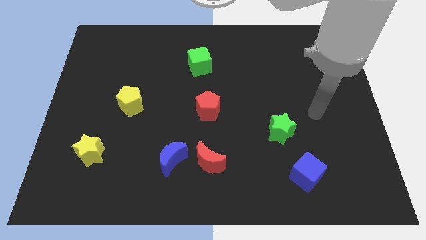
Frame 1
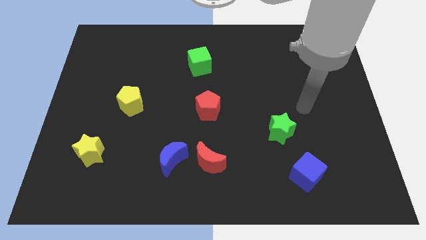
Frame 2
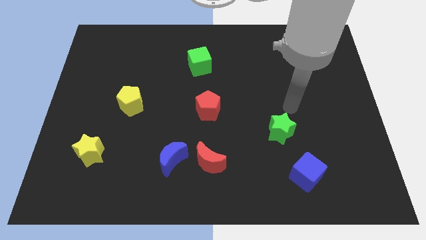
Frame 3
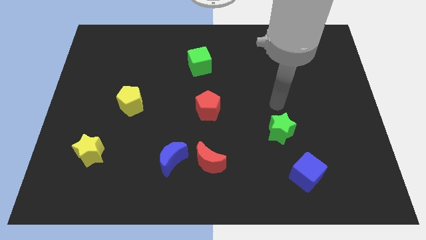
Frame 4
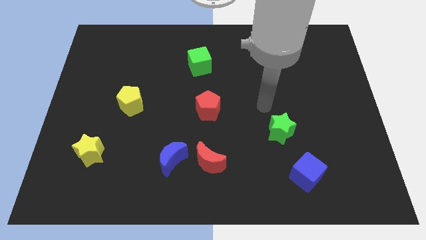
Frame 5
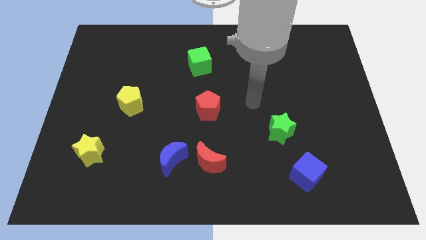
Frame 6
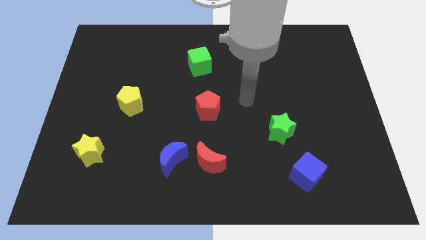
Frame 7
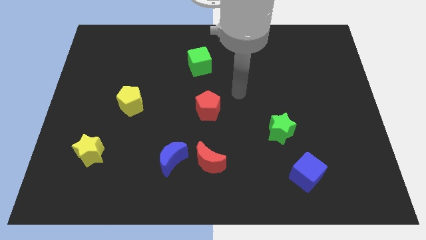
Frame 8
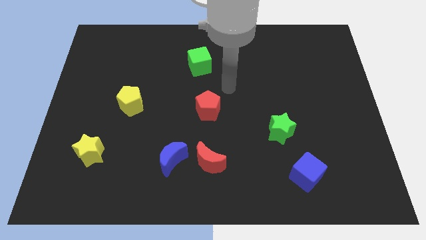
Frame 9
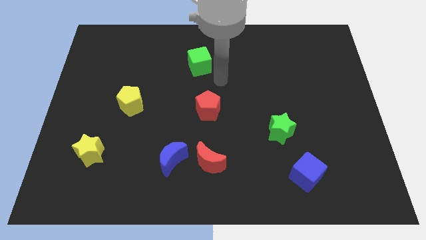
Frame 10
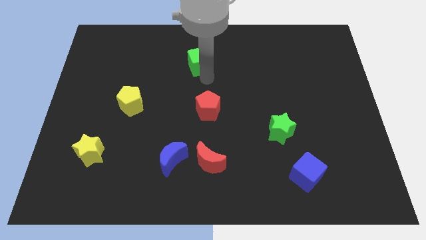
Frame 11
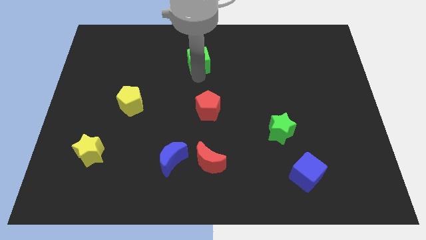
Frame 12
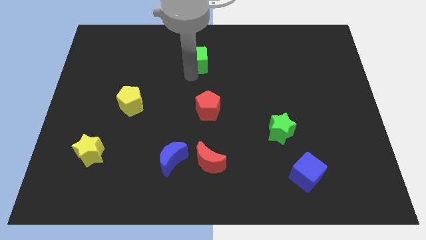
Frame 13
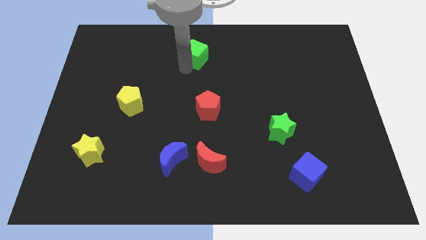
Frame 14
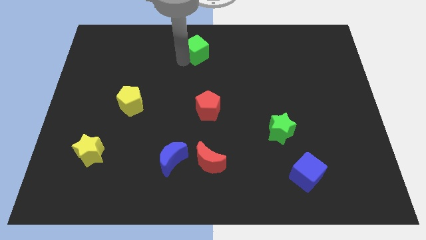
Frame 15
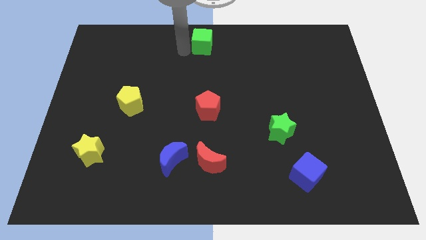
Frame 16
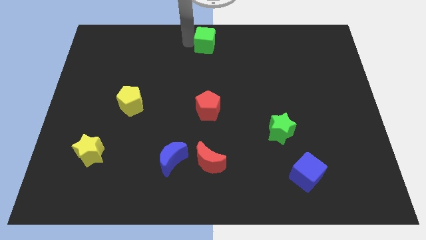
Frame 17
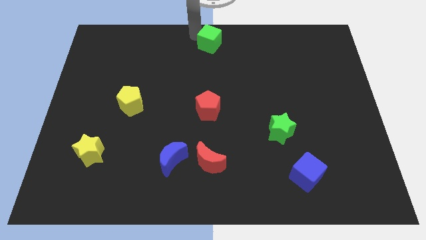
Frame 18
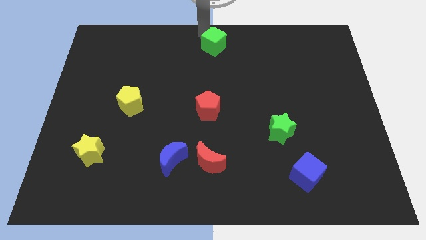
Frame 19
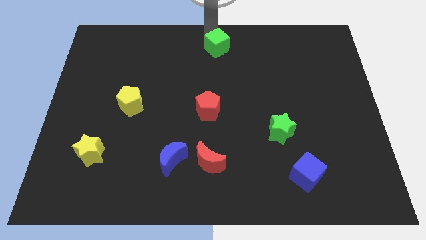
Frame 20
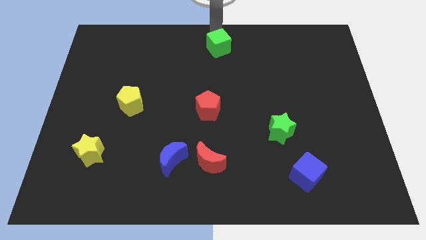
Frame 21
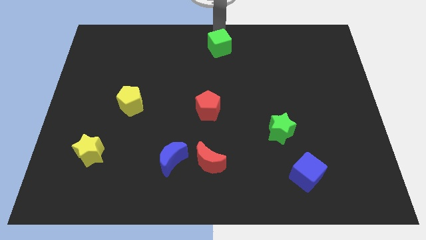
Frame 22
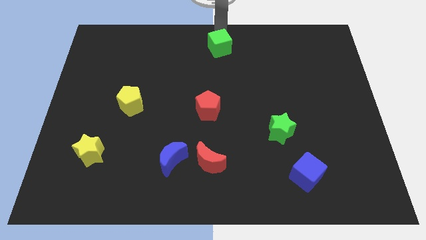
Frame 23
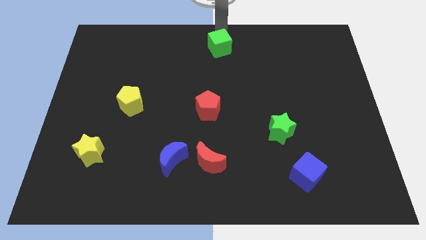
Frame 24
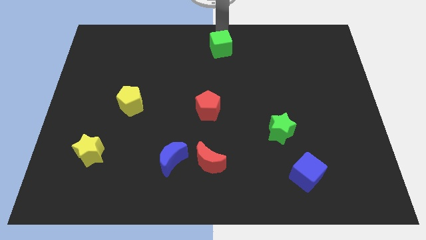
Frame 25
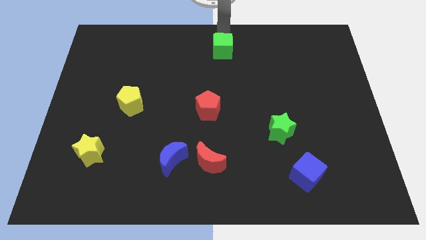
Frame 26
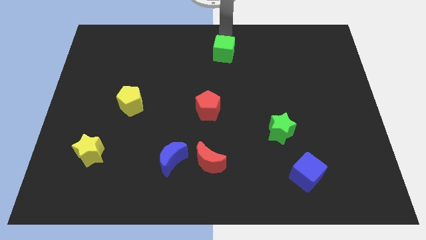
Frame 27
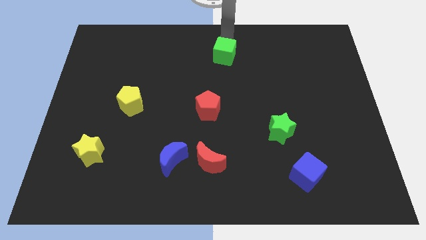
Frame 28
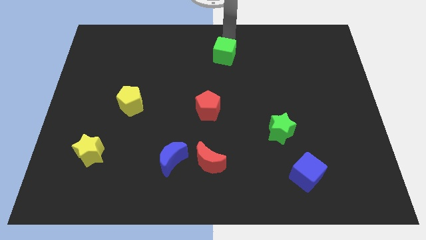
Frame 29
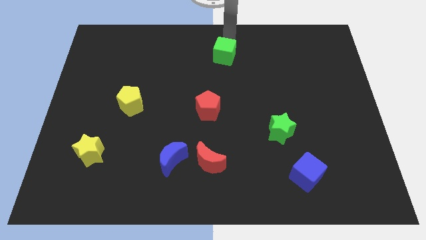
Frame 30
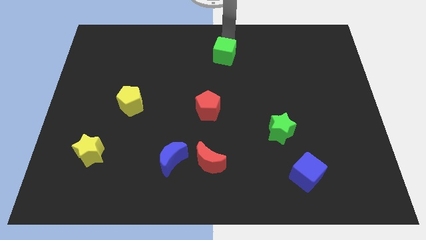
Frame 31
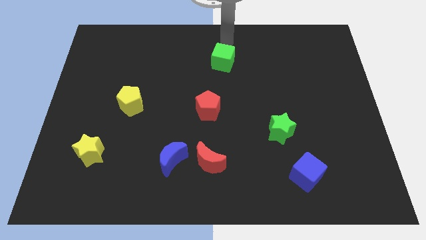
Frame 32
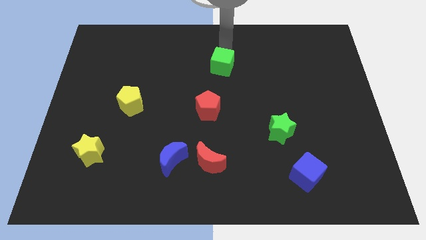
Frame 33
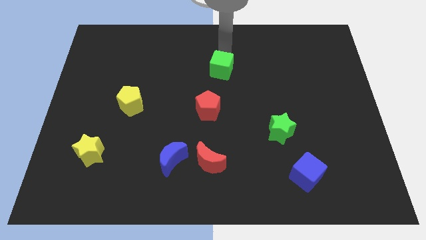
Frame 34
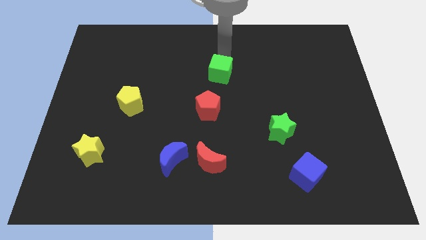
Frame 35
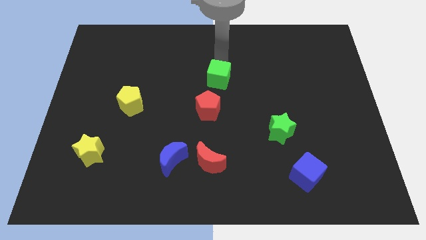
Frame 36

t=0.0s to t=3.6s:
move the green cube a little diagonally down and to the right

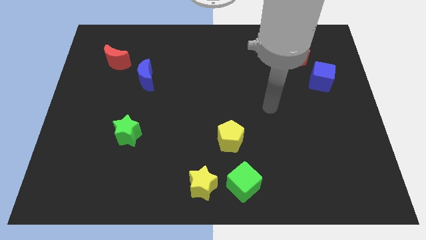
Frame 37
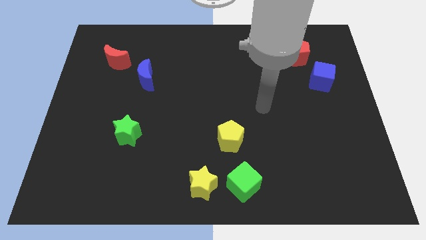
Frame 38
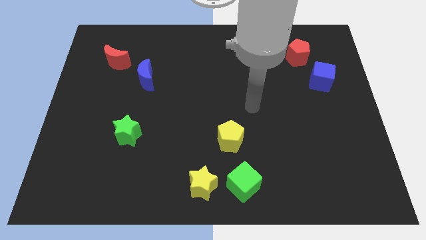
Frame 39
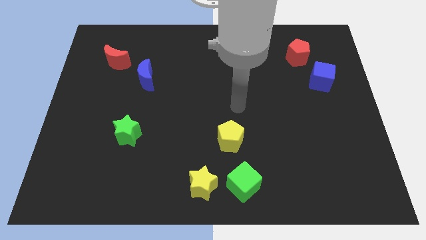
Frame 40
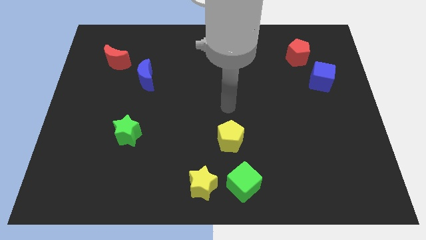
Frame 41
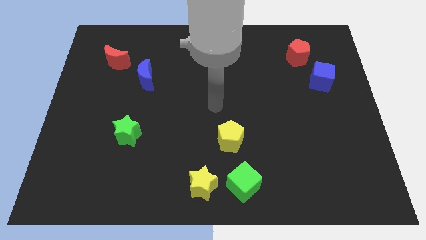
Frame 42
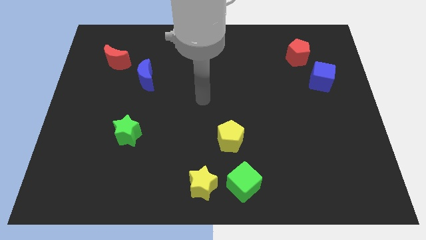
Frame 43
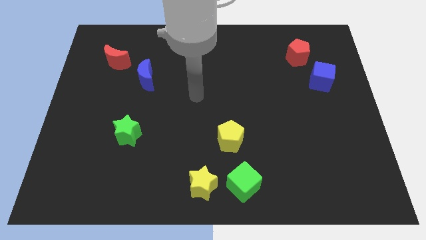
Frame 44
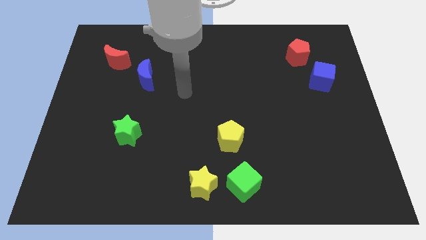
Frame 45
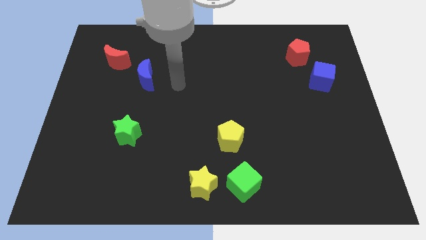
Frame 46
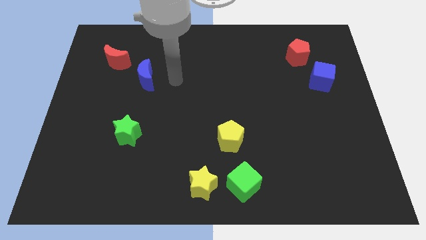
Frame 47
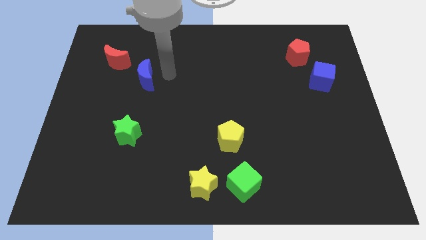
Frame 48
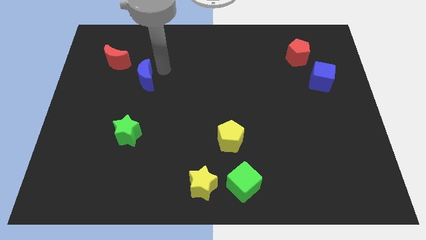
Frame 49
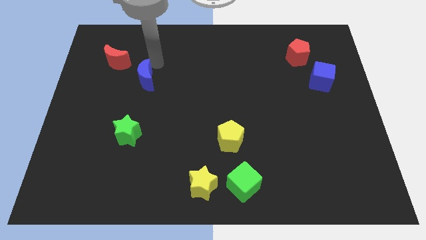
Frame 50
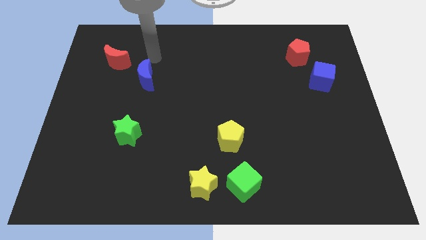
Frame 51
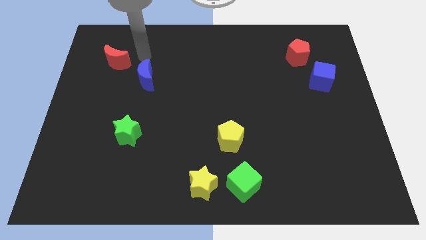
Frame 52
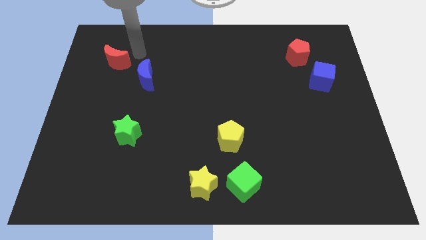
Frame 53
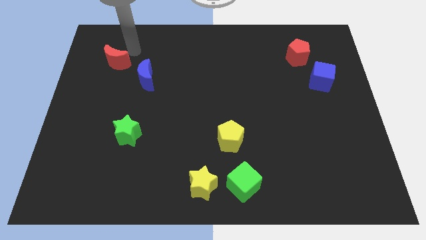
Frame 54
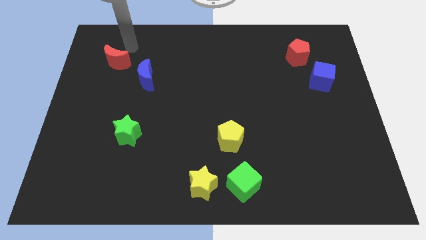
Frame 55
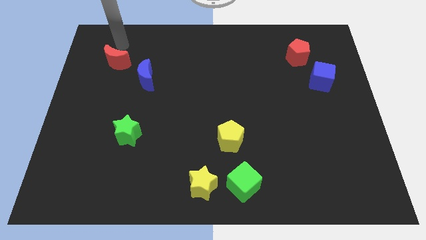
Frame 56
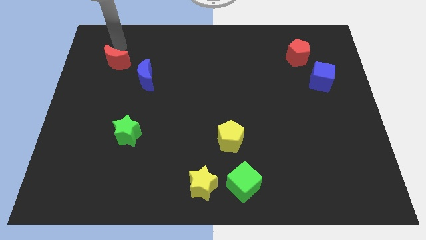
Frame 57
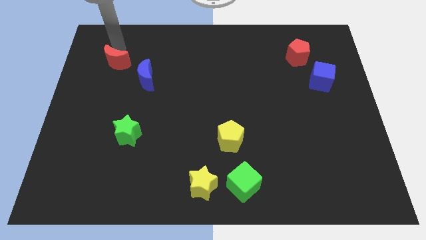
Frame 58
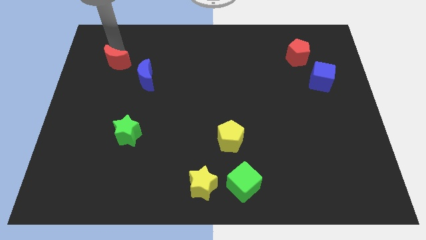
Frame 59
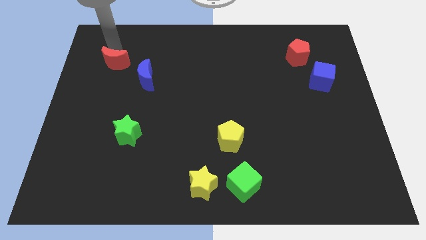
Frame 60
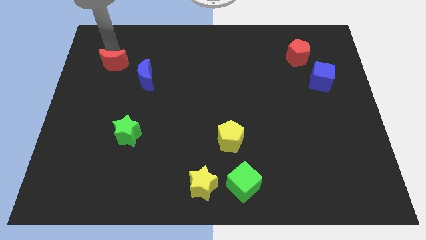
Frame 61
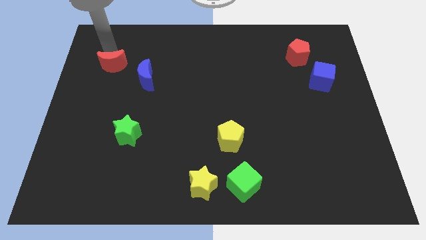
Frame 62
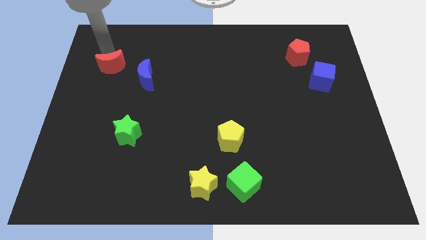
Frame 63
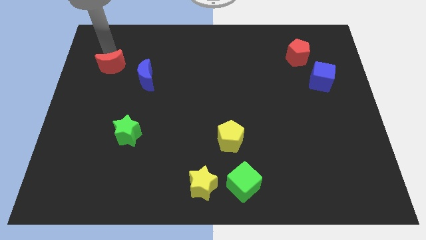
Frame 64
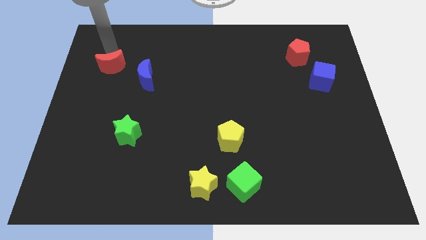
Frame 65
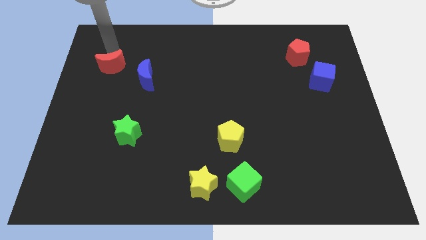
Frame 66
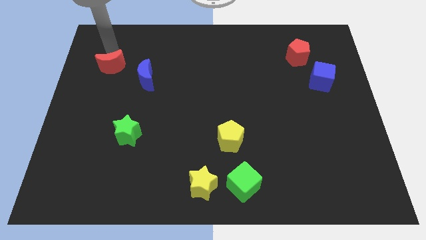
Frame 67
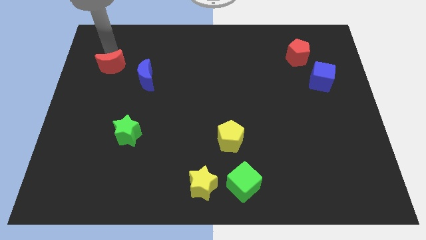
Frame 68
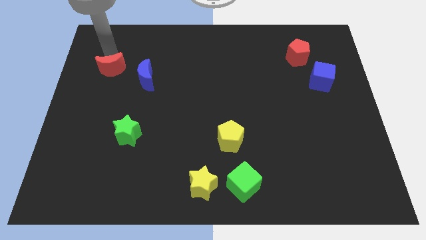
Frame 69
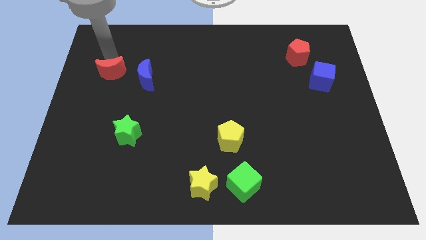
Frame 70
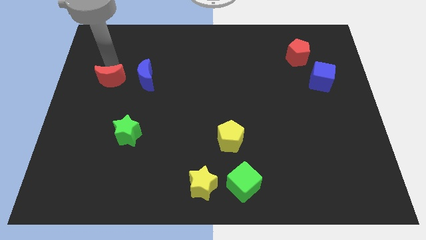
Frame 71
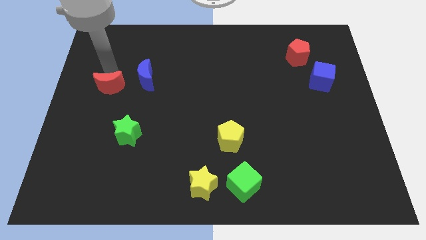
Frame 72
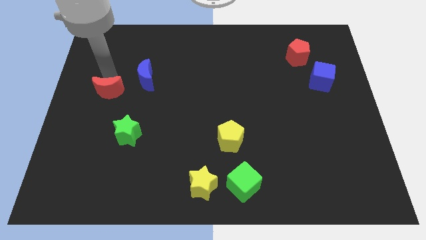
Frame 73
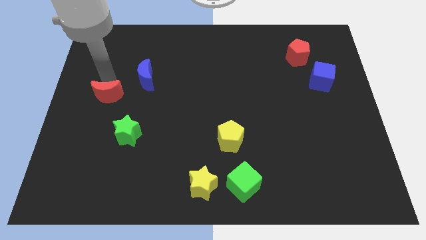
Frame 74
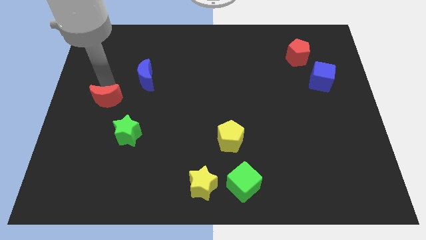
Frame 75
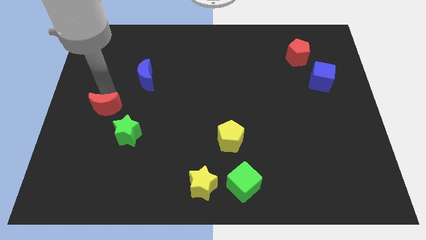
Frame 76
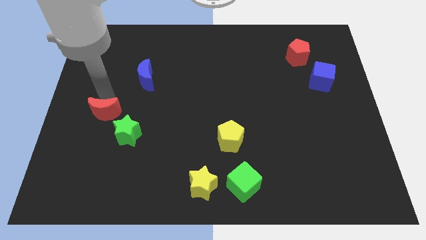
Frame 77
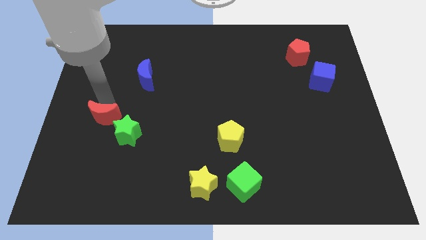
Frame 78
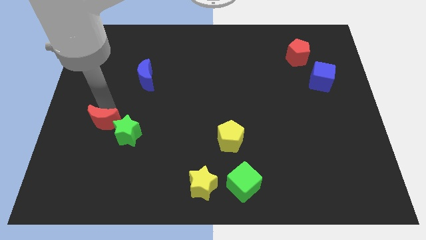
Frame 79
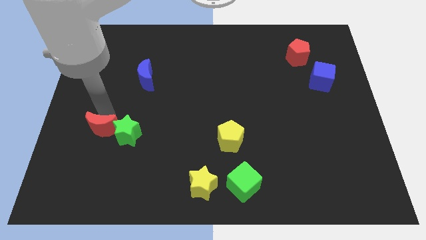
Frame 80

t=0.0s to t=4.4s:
slide the red moon down
